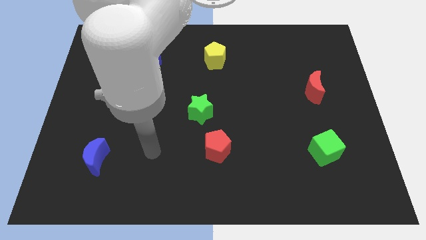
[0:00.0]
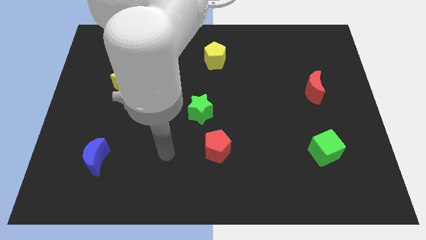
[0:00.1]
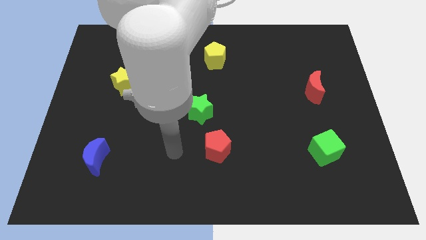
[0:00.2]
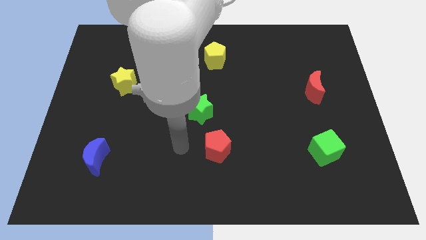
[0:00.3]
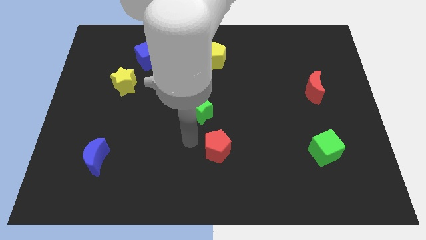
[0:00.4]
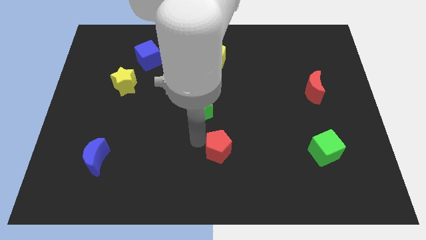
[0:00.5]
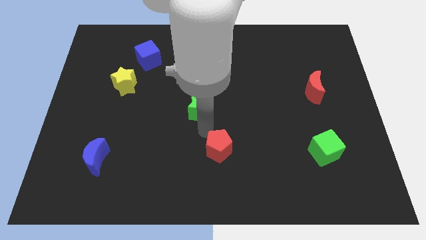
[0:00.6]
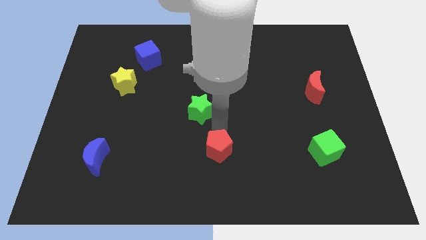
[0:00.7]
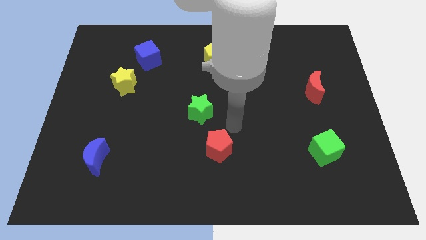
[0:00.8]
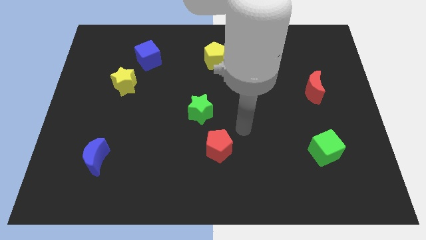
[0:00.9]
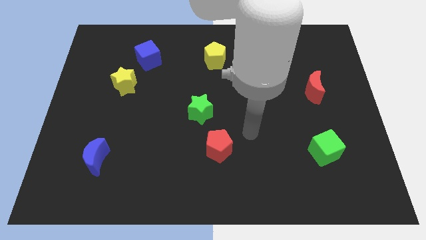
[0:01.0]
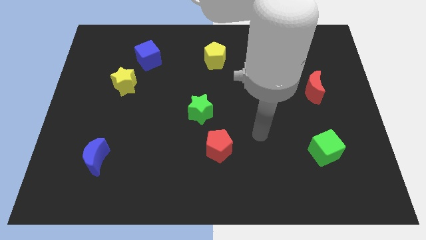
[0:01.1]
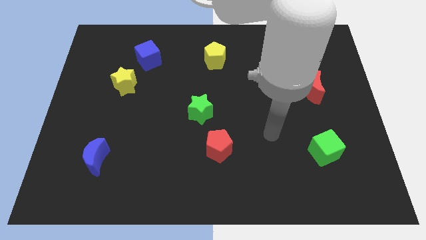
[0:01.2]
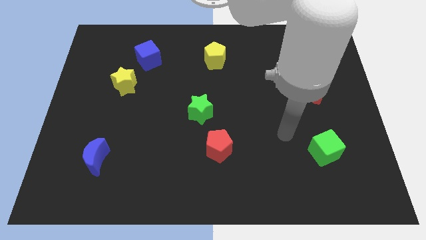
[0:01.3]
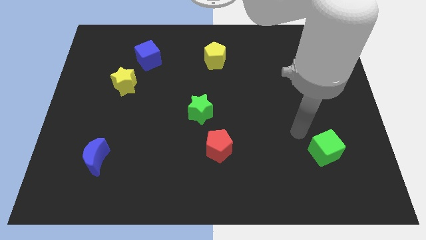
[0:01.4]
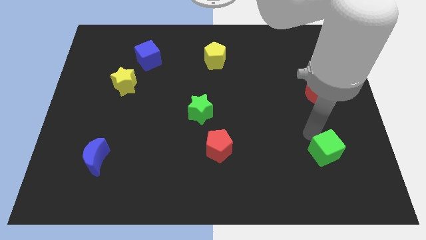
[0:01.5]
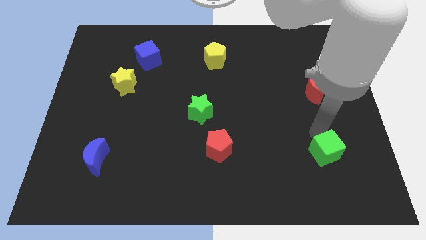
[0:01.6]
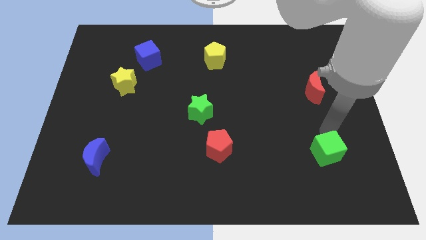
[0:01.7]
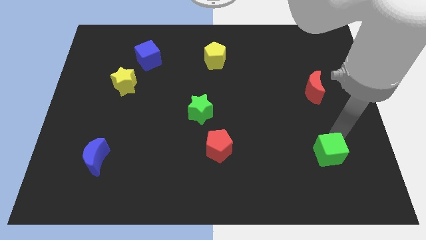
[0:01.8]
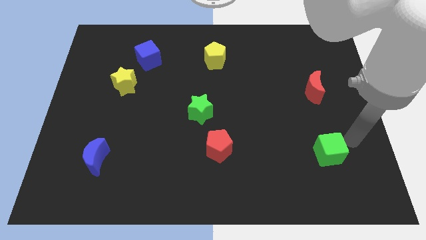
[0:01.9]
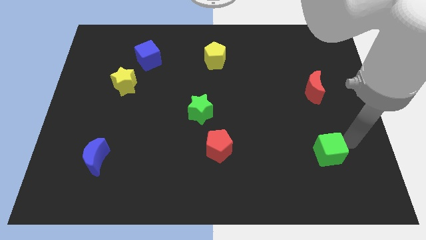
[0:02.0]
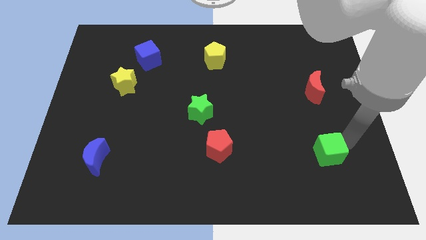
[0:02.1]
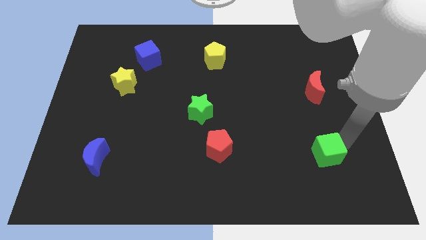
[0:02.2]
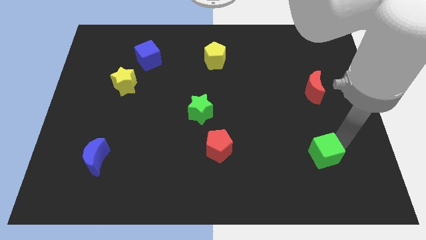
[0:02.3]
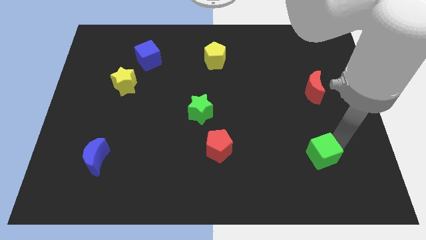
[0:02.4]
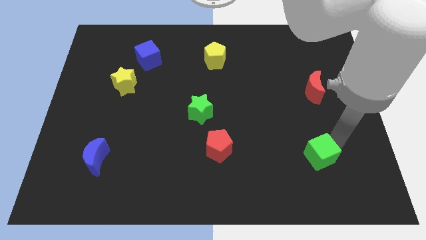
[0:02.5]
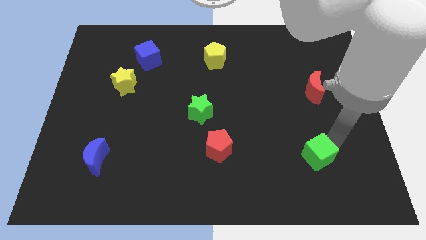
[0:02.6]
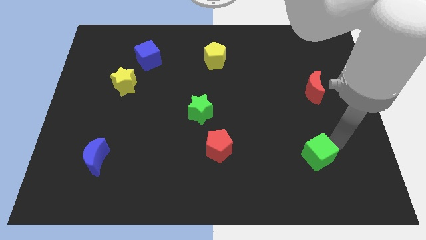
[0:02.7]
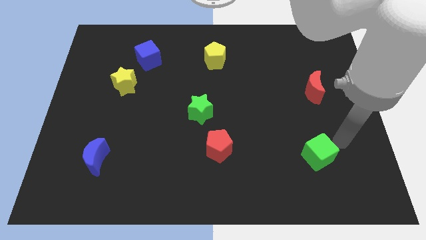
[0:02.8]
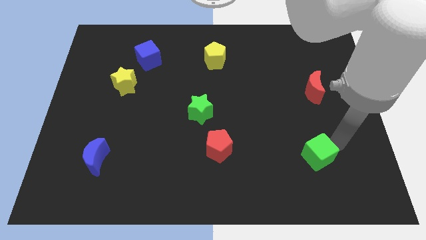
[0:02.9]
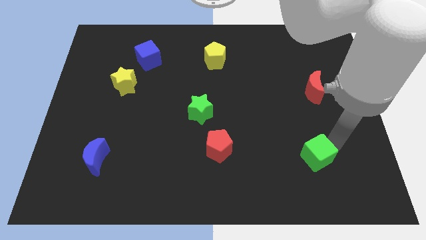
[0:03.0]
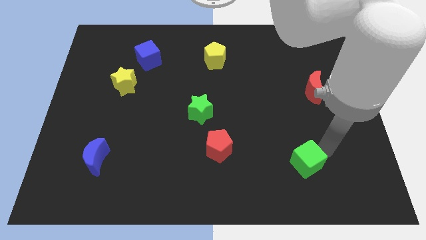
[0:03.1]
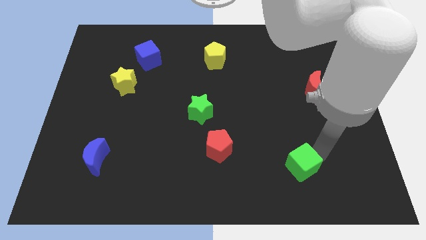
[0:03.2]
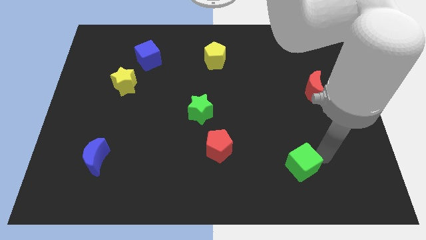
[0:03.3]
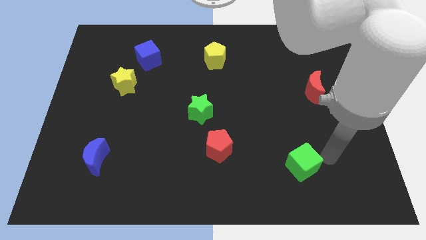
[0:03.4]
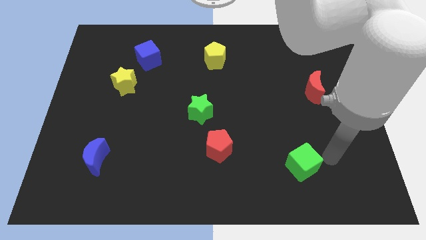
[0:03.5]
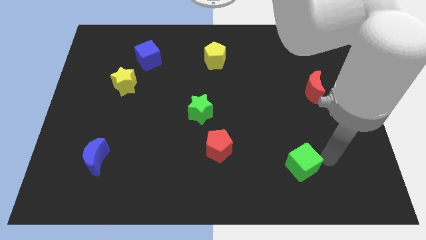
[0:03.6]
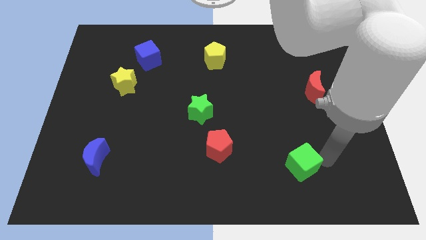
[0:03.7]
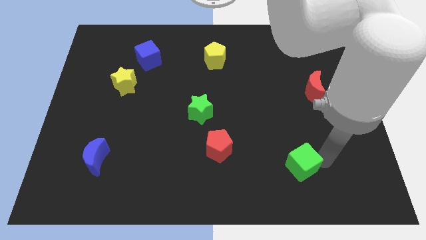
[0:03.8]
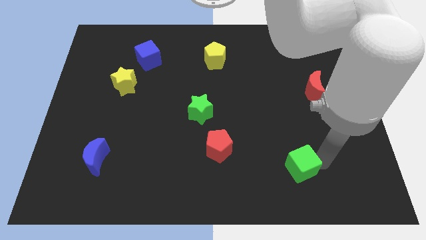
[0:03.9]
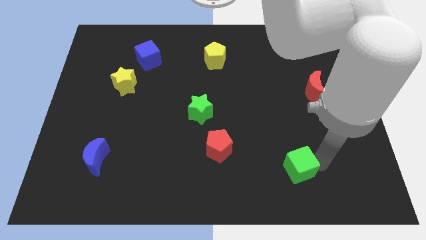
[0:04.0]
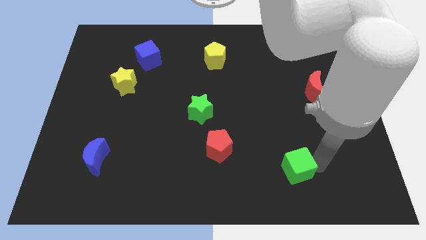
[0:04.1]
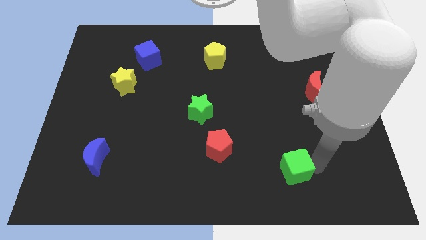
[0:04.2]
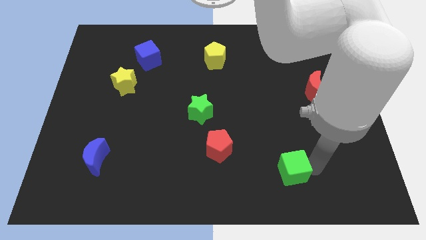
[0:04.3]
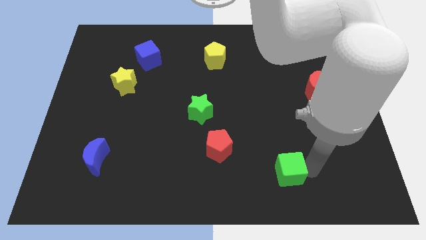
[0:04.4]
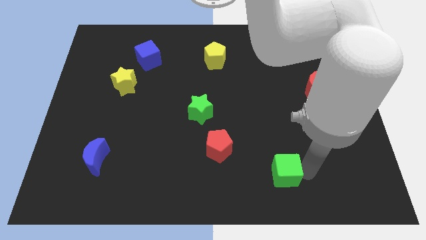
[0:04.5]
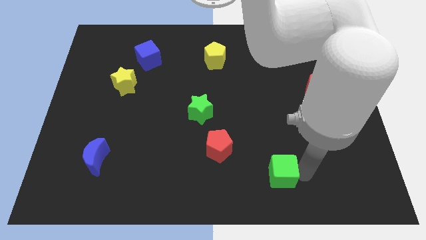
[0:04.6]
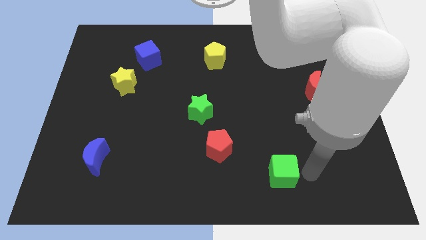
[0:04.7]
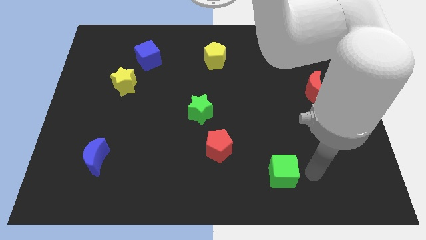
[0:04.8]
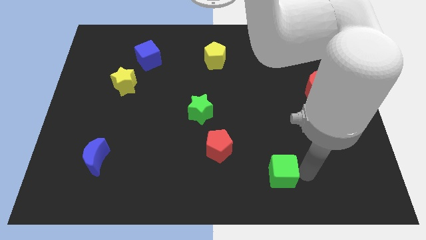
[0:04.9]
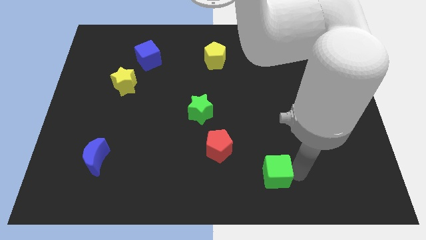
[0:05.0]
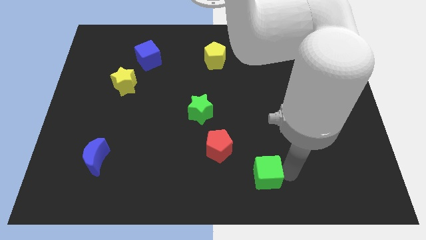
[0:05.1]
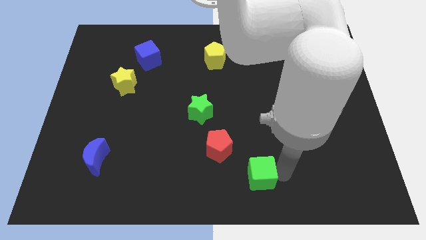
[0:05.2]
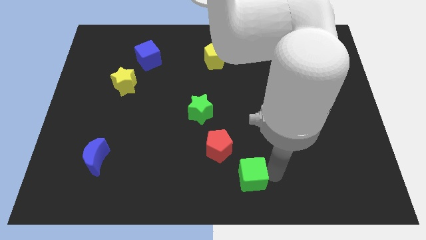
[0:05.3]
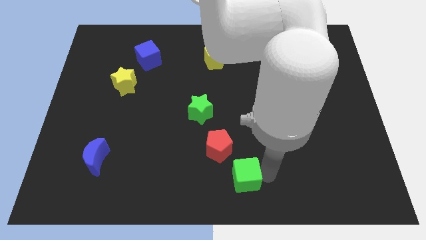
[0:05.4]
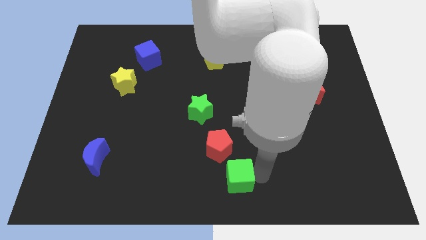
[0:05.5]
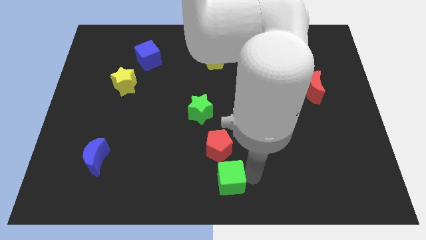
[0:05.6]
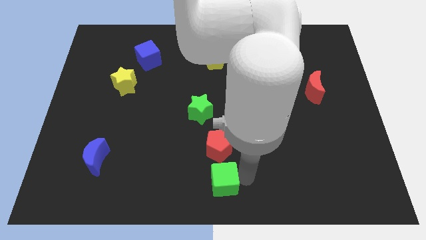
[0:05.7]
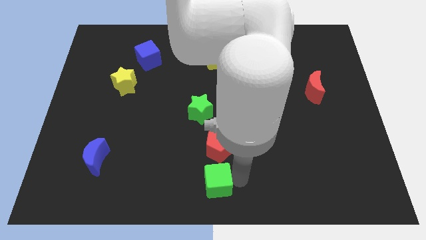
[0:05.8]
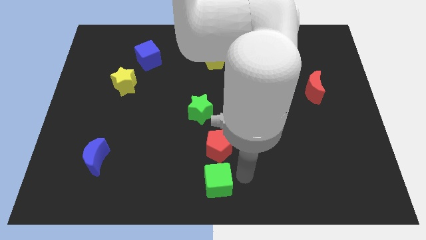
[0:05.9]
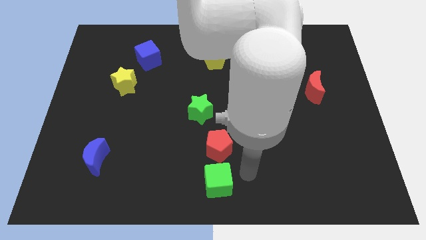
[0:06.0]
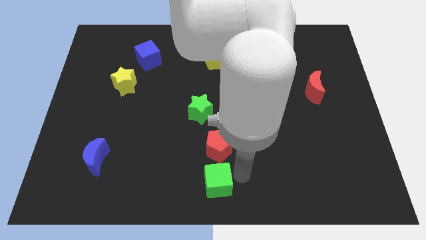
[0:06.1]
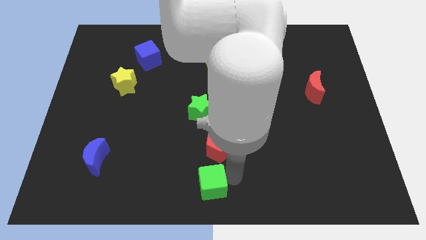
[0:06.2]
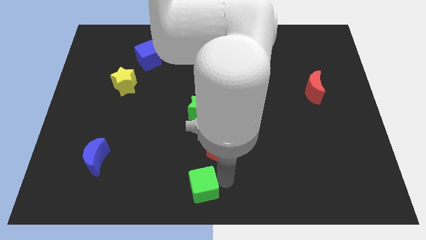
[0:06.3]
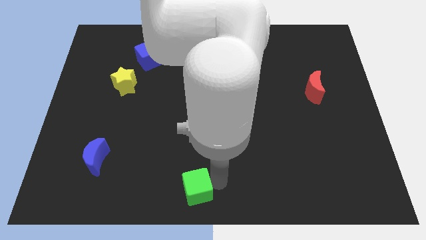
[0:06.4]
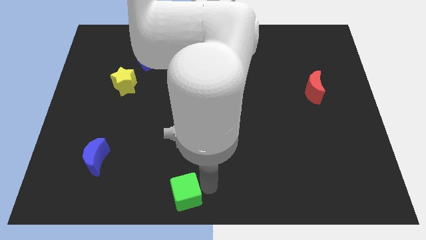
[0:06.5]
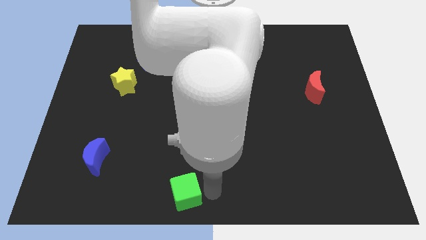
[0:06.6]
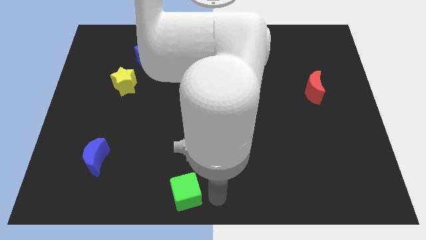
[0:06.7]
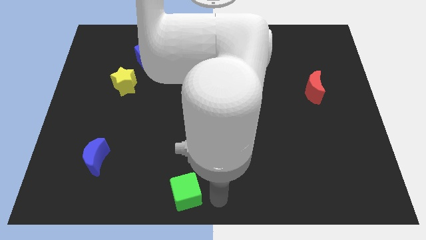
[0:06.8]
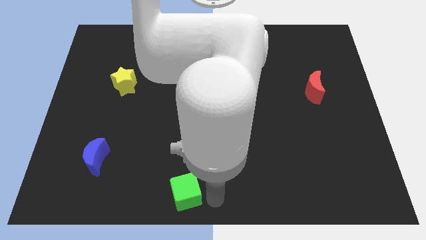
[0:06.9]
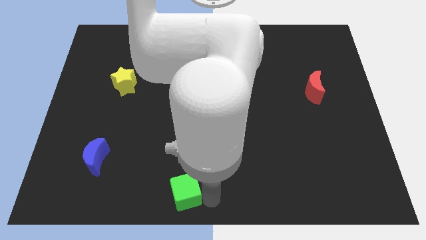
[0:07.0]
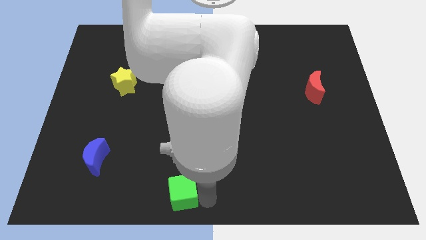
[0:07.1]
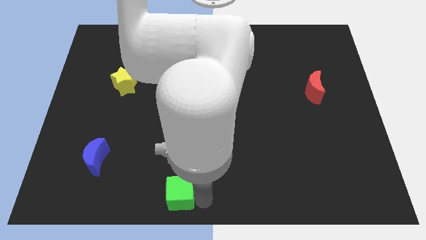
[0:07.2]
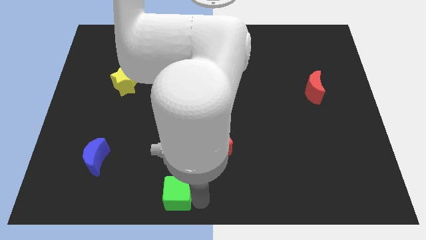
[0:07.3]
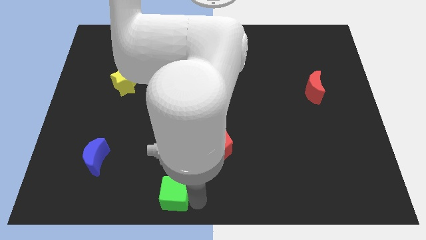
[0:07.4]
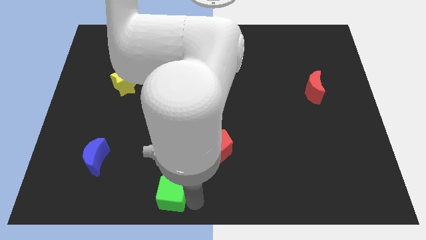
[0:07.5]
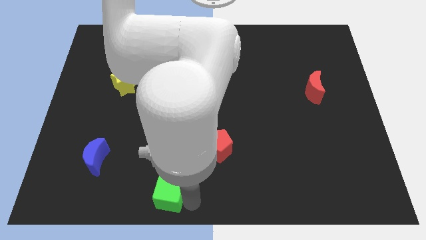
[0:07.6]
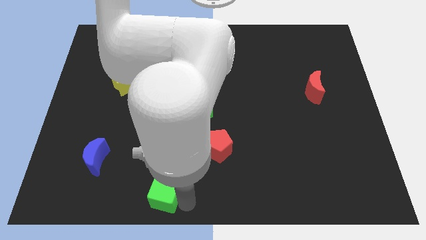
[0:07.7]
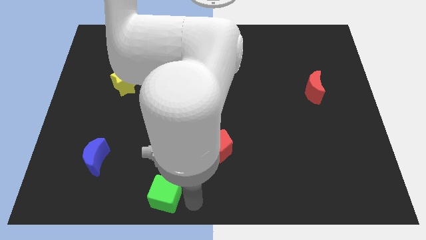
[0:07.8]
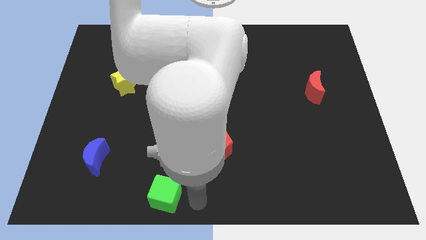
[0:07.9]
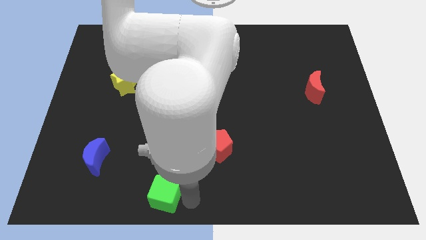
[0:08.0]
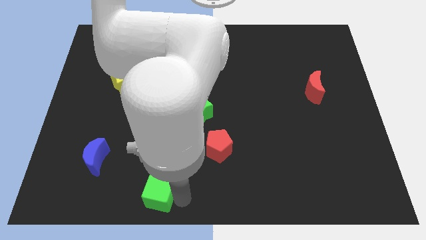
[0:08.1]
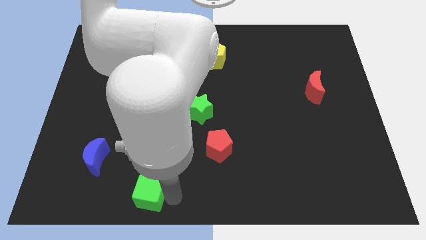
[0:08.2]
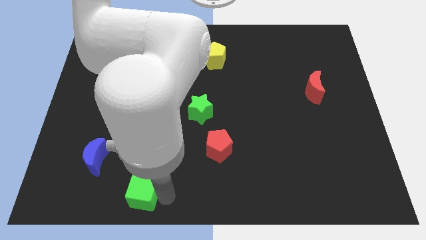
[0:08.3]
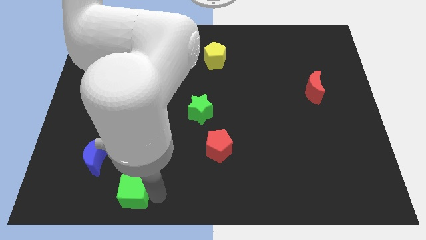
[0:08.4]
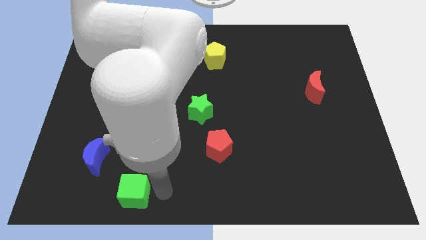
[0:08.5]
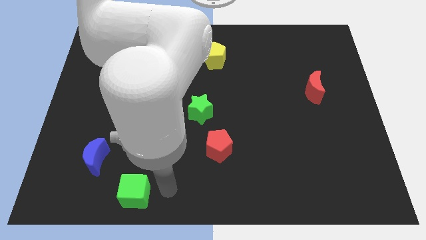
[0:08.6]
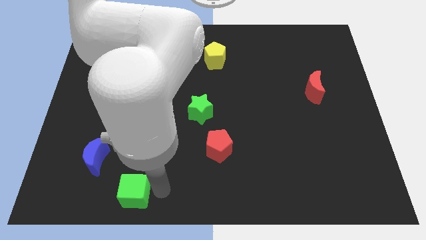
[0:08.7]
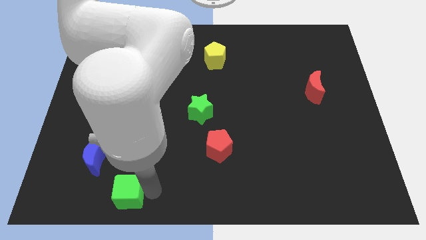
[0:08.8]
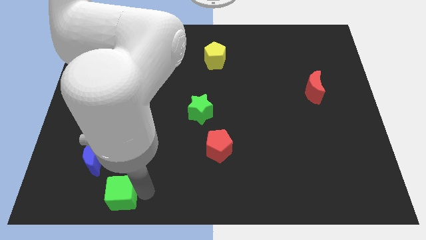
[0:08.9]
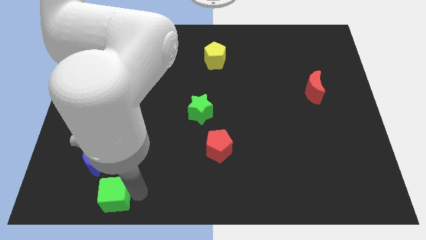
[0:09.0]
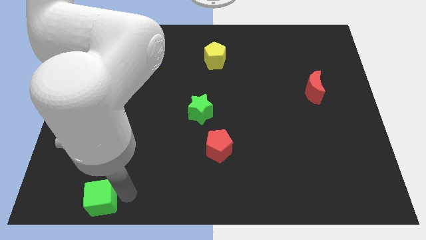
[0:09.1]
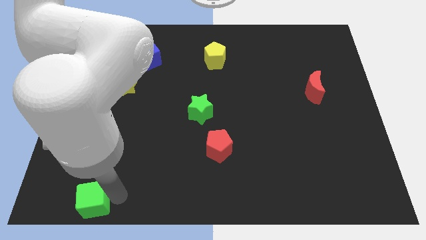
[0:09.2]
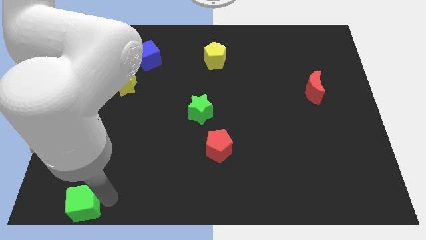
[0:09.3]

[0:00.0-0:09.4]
slide the green cube to the bottom left
